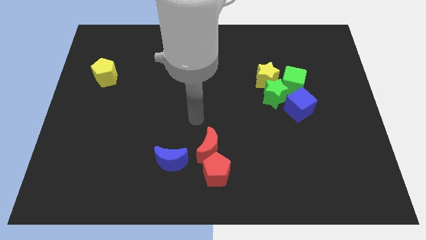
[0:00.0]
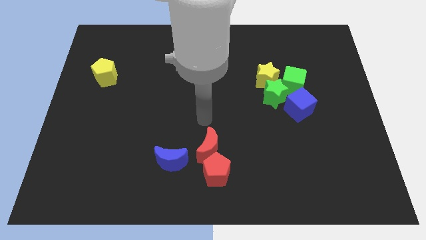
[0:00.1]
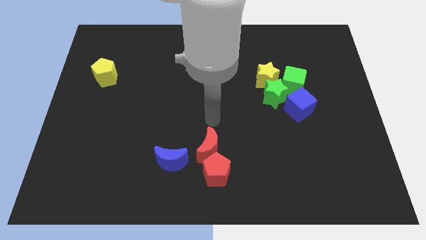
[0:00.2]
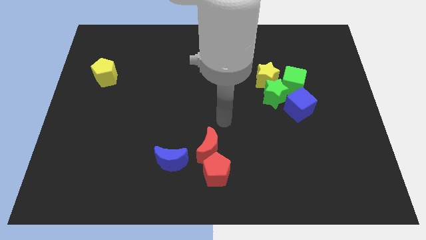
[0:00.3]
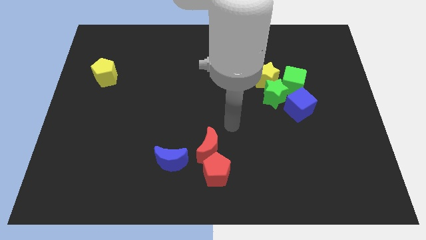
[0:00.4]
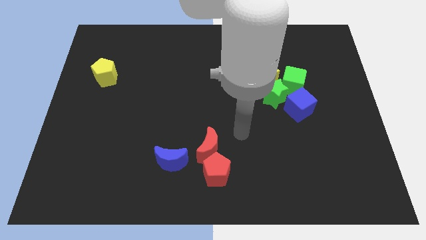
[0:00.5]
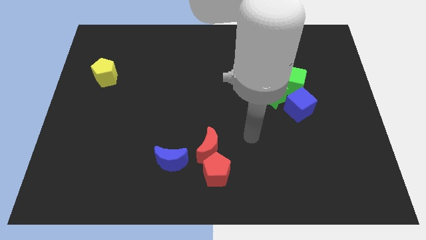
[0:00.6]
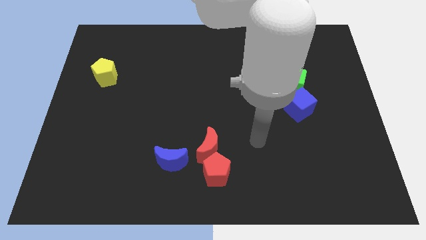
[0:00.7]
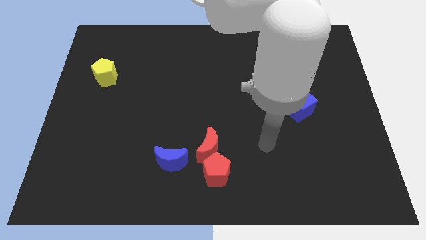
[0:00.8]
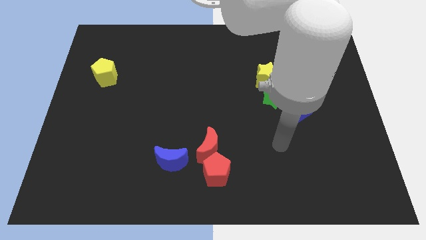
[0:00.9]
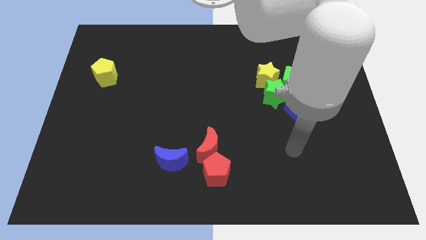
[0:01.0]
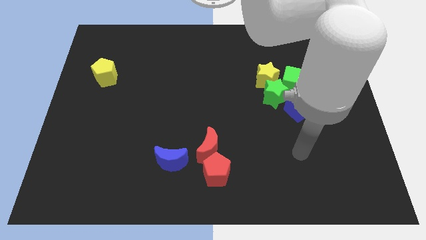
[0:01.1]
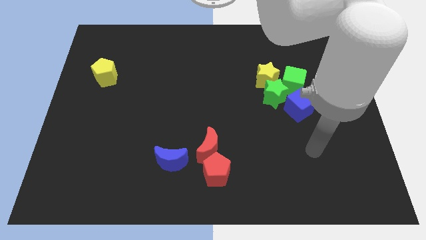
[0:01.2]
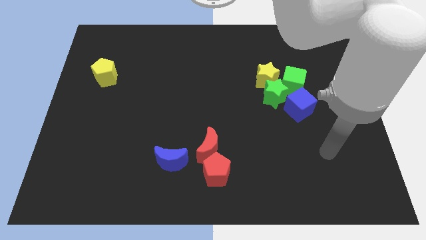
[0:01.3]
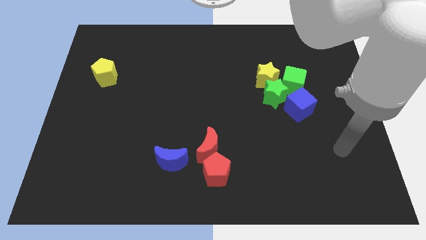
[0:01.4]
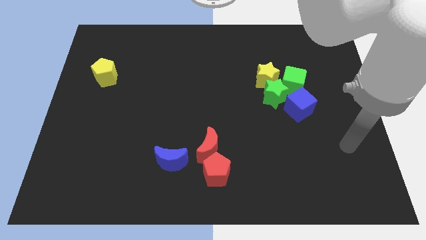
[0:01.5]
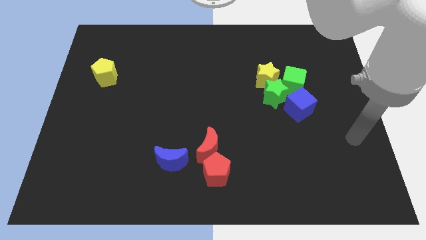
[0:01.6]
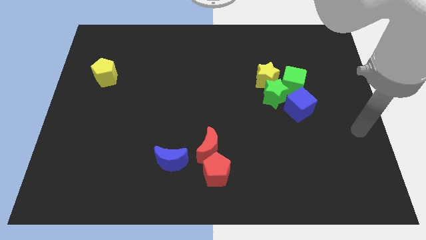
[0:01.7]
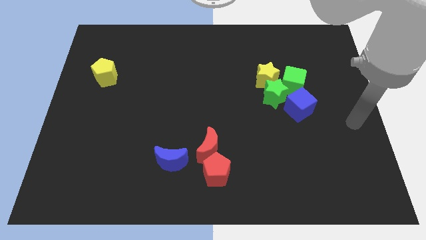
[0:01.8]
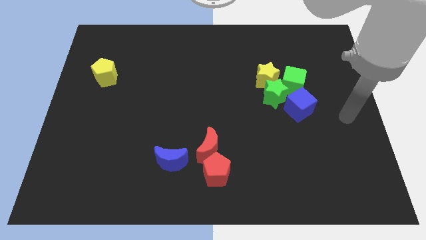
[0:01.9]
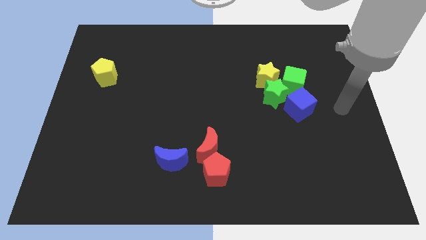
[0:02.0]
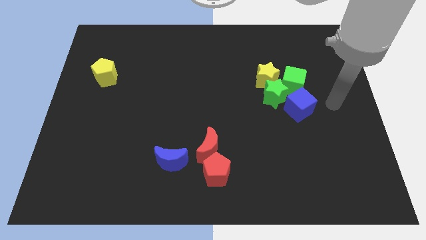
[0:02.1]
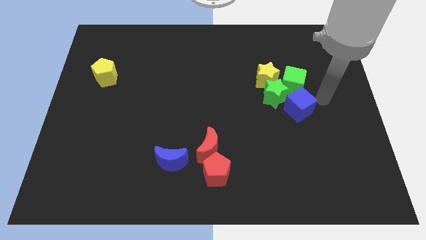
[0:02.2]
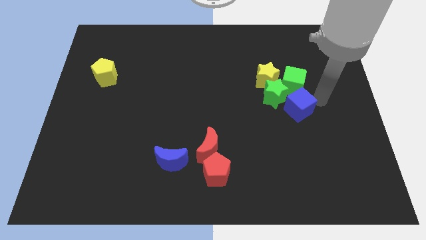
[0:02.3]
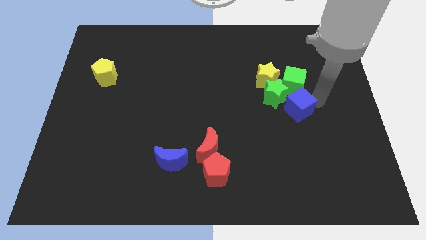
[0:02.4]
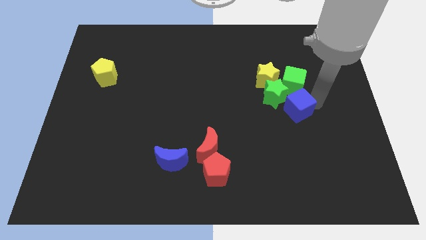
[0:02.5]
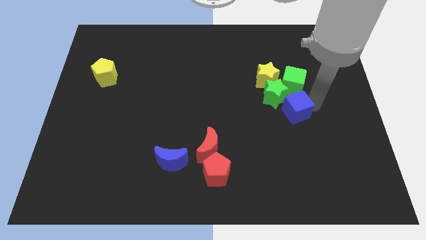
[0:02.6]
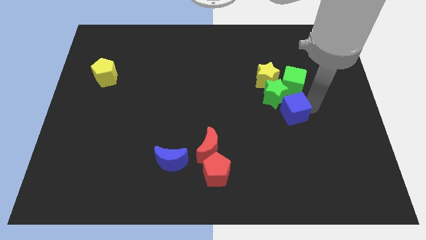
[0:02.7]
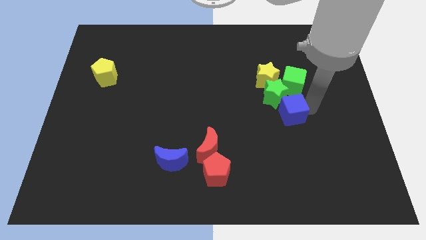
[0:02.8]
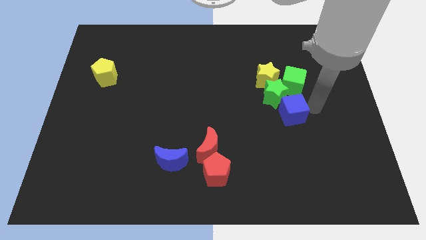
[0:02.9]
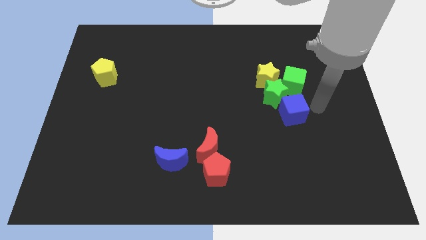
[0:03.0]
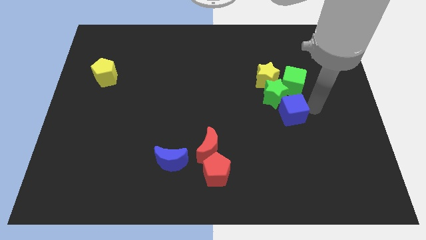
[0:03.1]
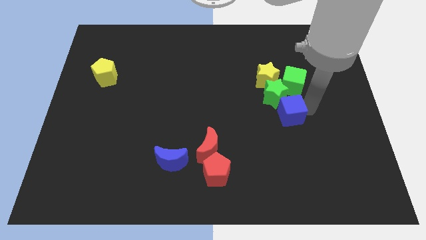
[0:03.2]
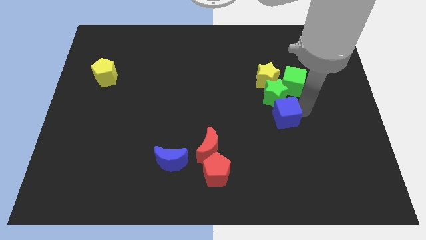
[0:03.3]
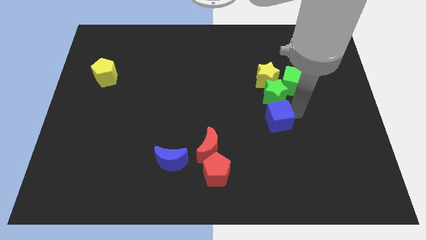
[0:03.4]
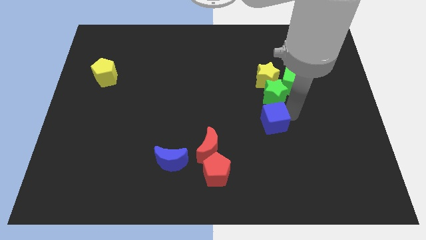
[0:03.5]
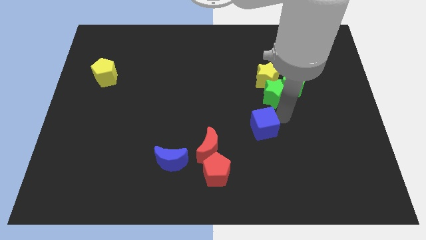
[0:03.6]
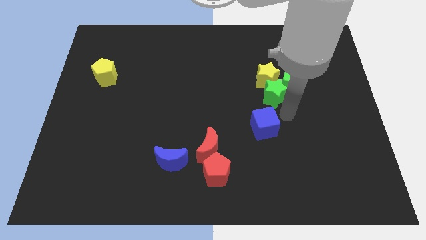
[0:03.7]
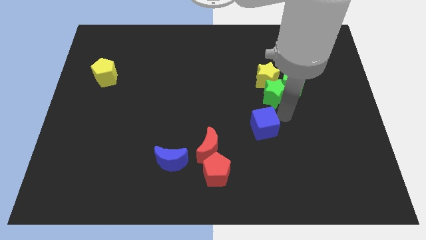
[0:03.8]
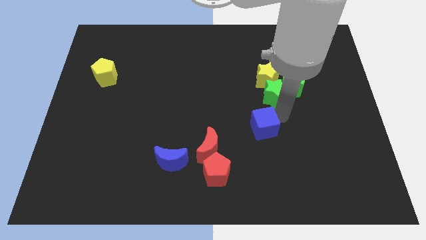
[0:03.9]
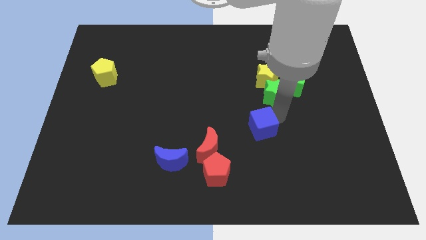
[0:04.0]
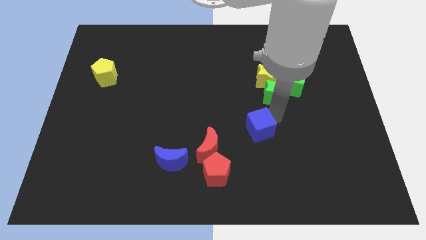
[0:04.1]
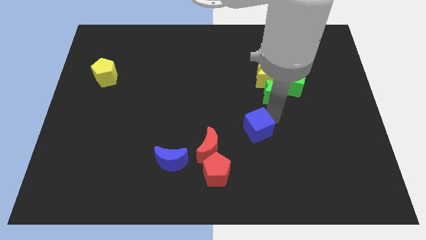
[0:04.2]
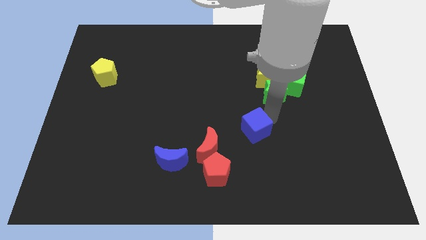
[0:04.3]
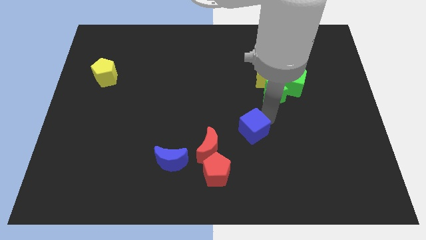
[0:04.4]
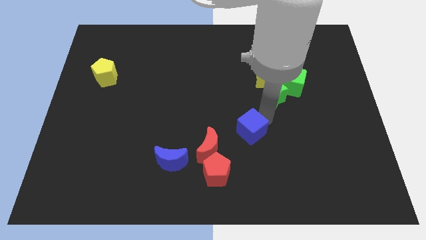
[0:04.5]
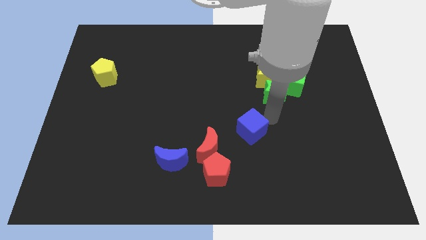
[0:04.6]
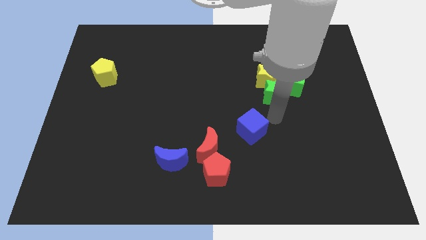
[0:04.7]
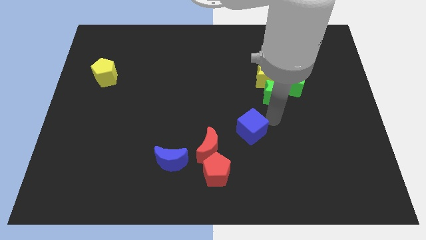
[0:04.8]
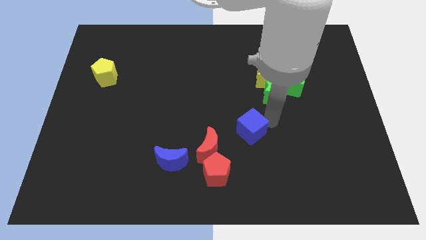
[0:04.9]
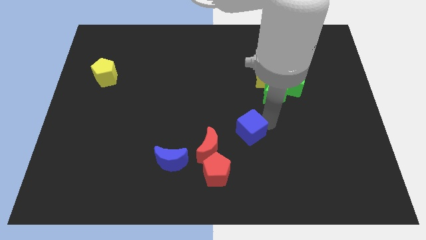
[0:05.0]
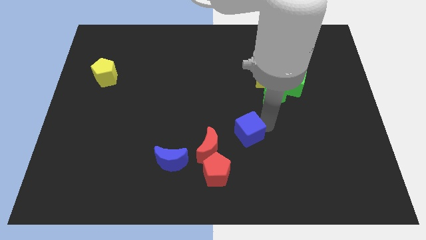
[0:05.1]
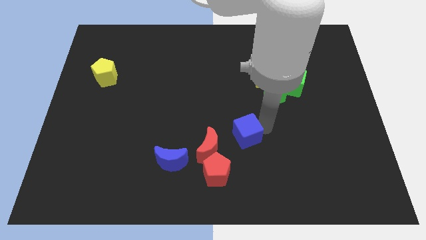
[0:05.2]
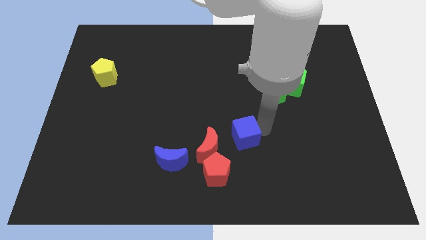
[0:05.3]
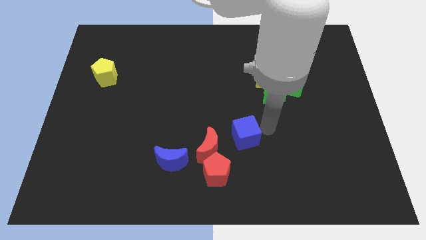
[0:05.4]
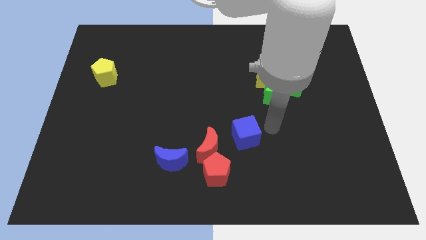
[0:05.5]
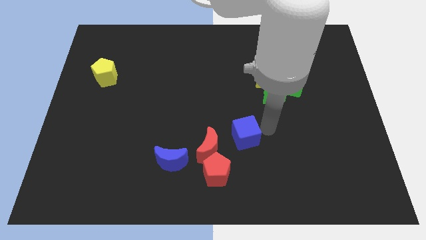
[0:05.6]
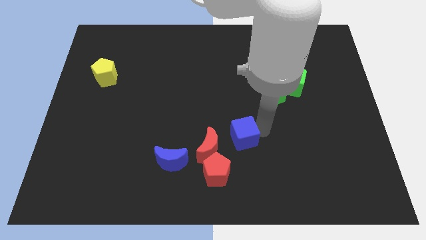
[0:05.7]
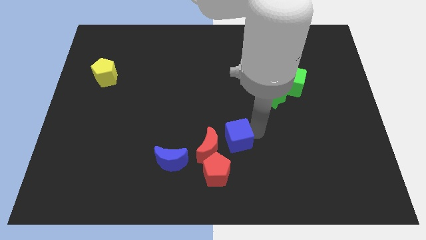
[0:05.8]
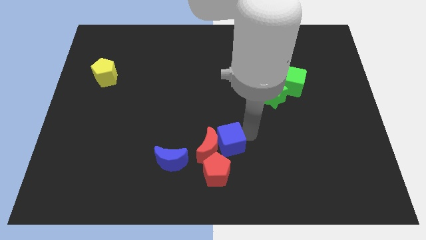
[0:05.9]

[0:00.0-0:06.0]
slide the blue cube close to the red moon

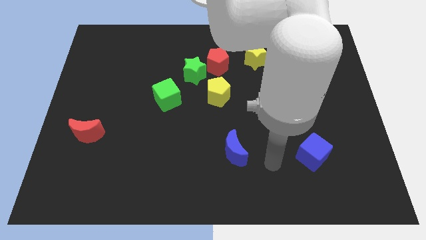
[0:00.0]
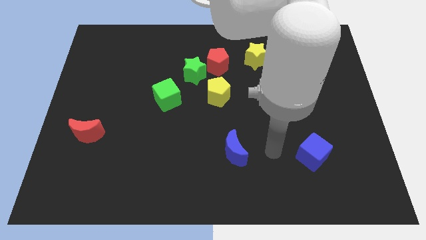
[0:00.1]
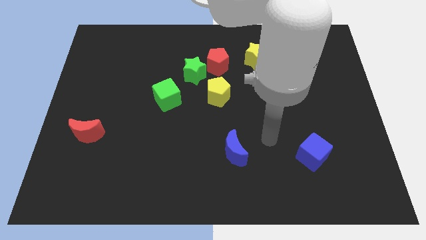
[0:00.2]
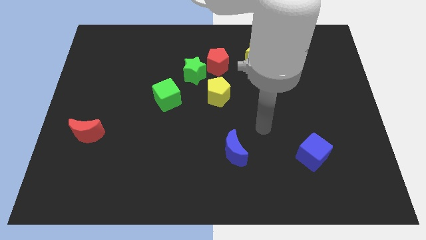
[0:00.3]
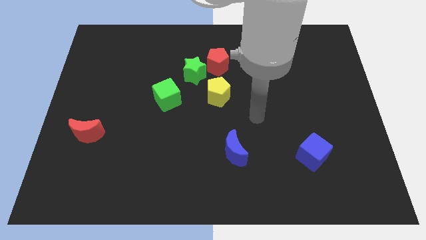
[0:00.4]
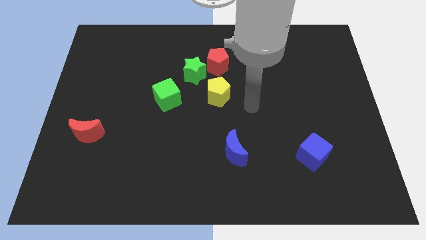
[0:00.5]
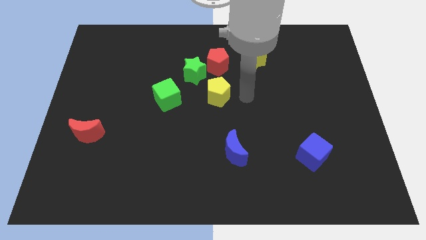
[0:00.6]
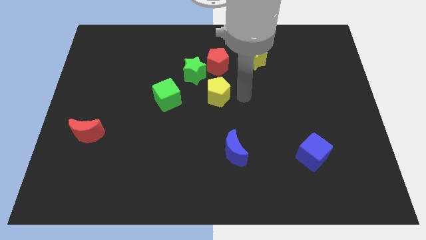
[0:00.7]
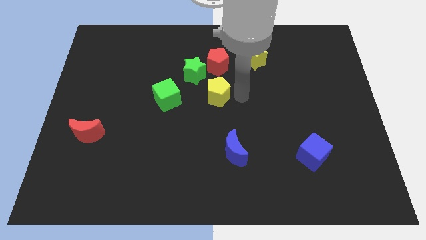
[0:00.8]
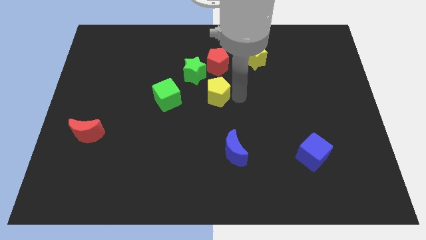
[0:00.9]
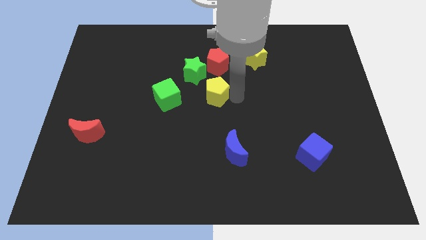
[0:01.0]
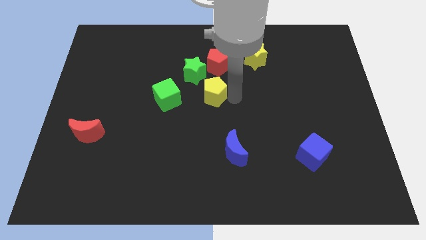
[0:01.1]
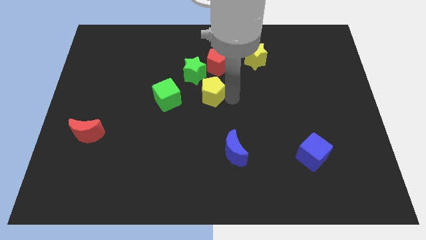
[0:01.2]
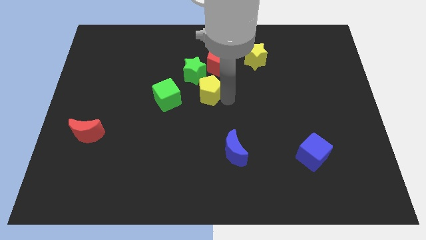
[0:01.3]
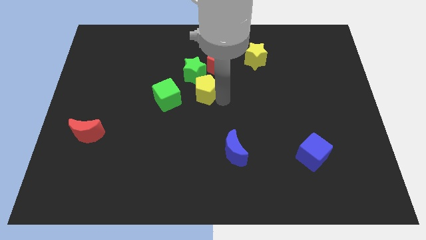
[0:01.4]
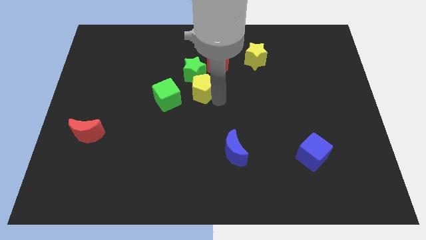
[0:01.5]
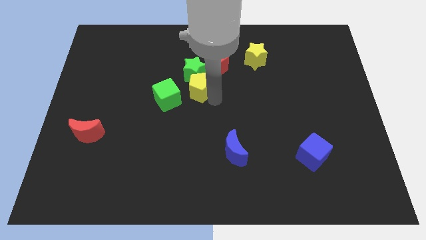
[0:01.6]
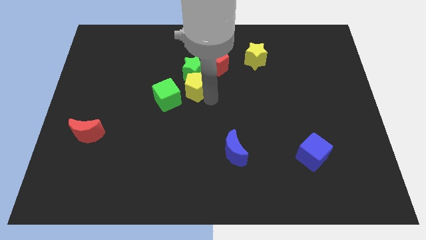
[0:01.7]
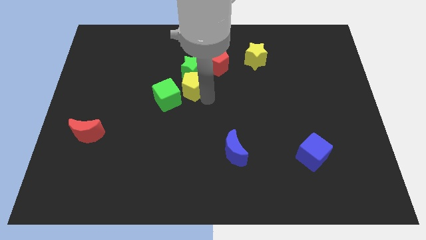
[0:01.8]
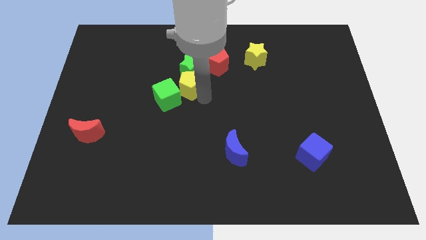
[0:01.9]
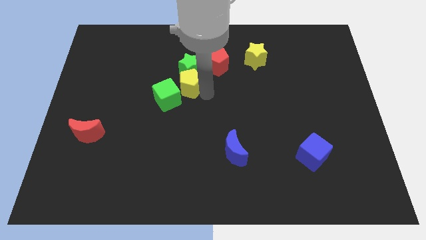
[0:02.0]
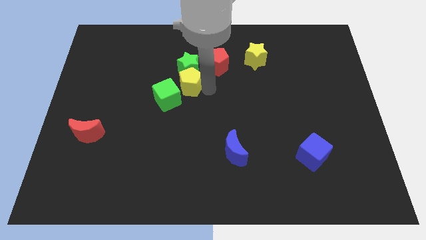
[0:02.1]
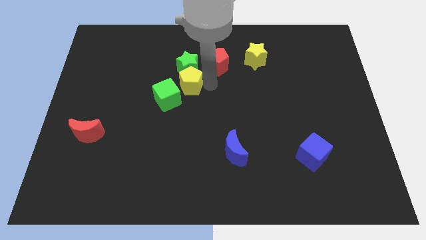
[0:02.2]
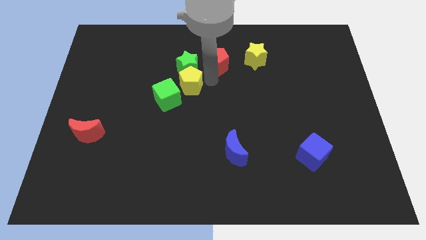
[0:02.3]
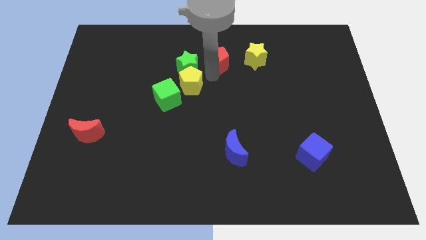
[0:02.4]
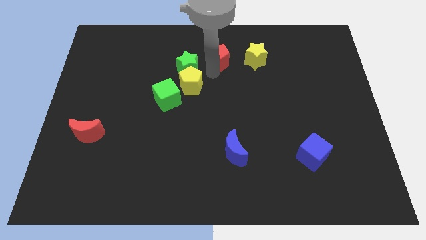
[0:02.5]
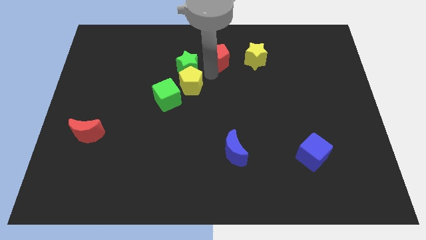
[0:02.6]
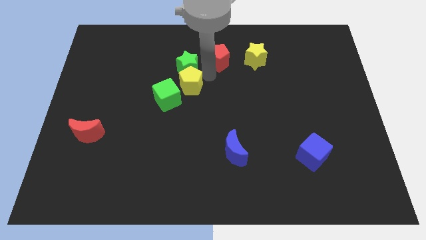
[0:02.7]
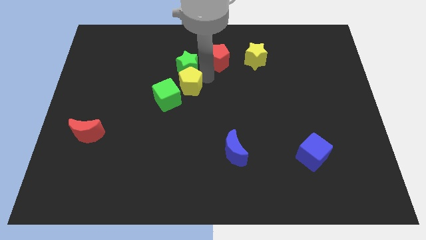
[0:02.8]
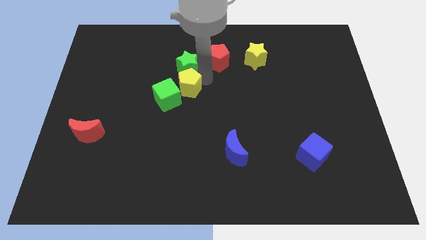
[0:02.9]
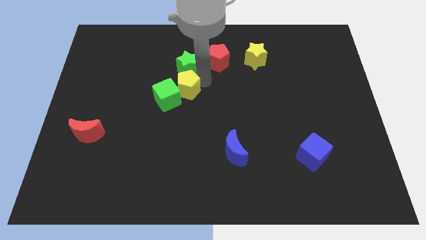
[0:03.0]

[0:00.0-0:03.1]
push the yellow pentagon to the green cube
